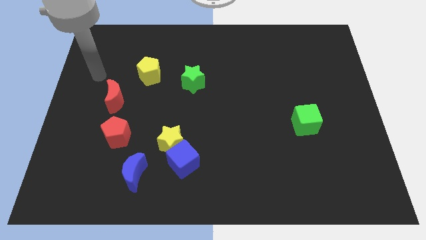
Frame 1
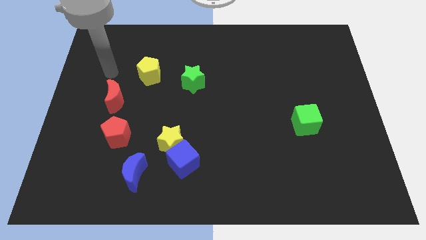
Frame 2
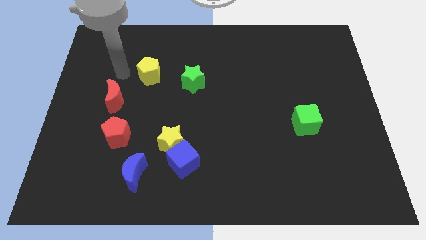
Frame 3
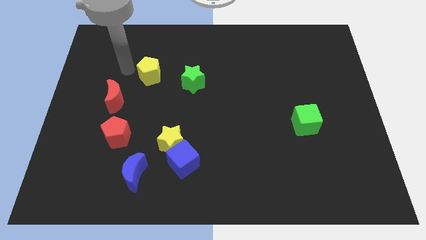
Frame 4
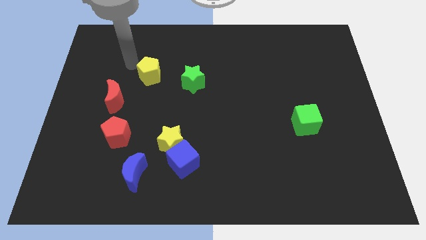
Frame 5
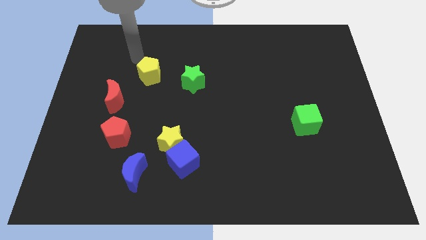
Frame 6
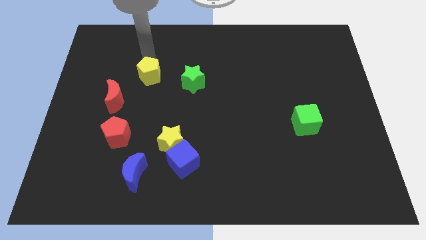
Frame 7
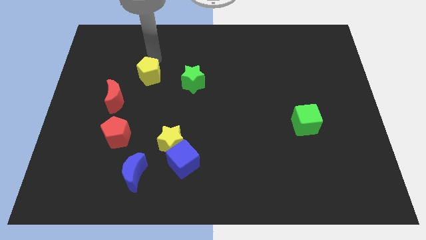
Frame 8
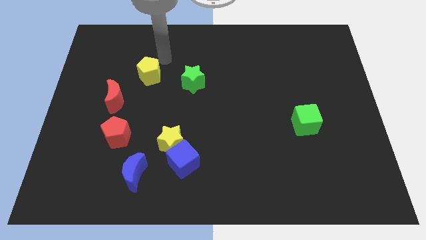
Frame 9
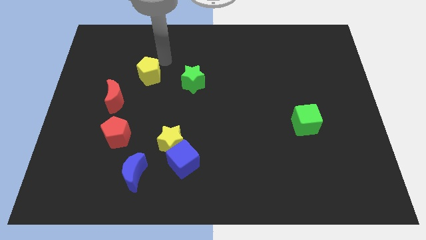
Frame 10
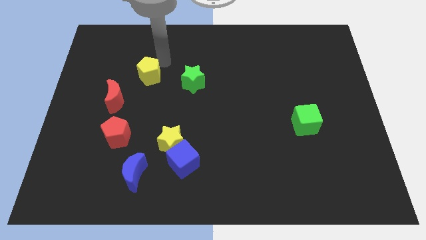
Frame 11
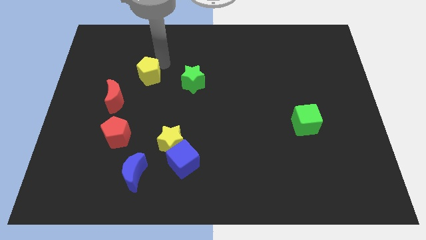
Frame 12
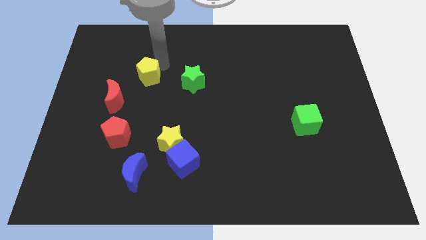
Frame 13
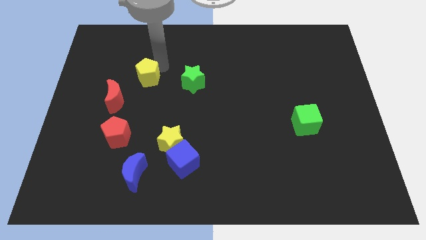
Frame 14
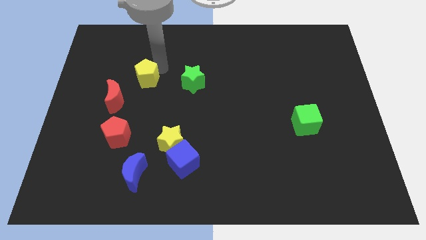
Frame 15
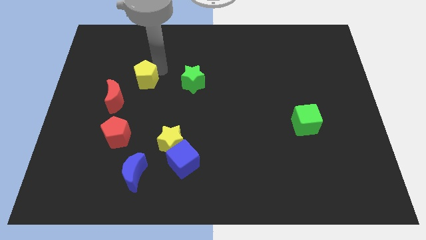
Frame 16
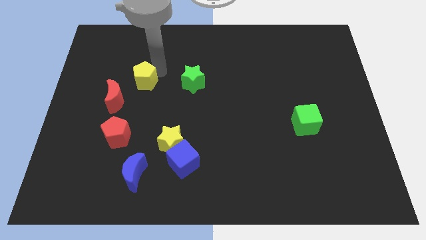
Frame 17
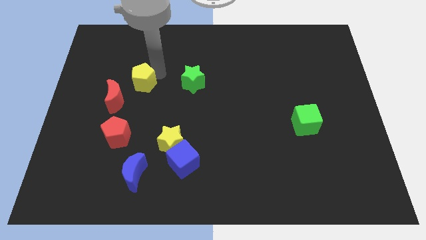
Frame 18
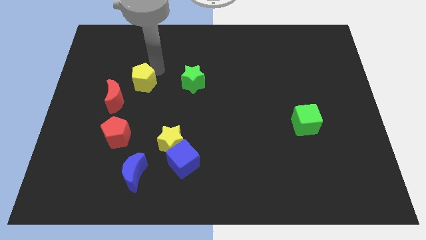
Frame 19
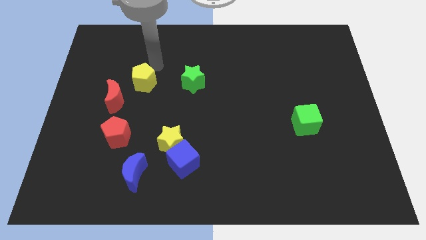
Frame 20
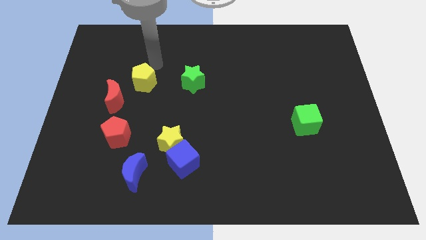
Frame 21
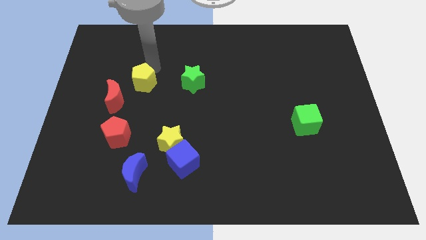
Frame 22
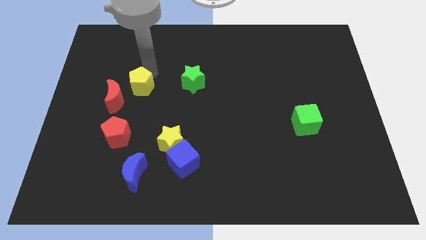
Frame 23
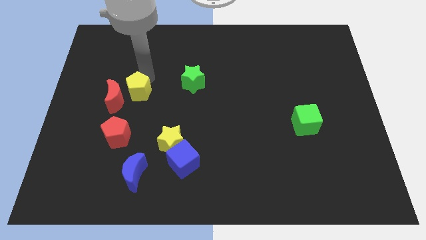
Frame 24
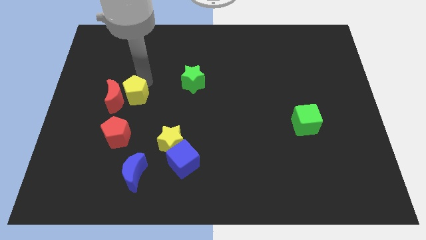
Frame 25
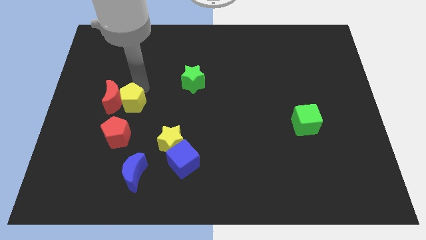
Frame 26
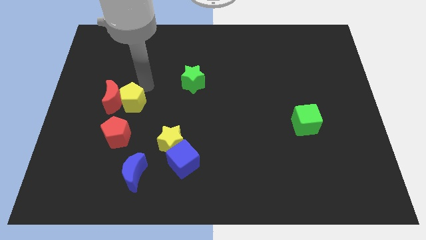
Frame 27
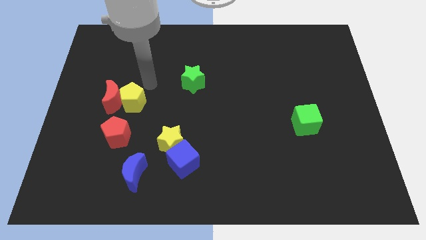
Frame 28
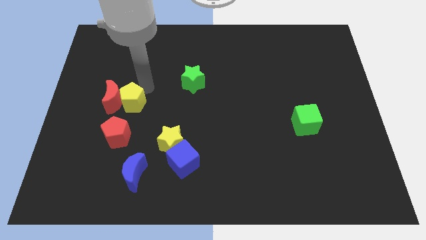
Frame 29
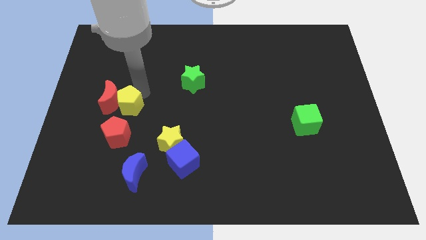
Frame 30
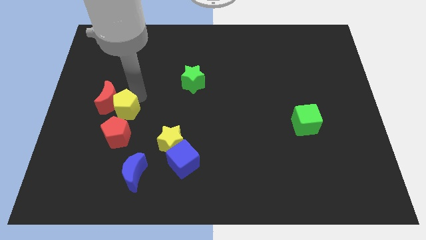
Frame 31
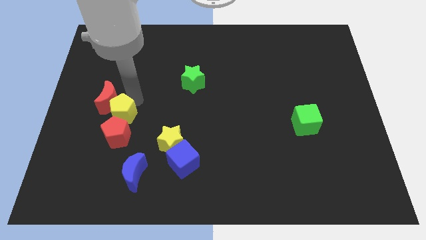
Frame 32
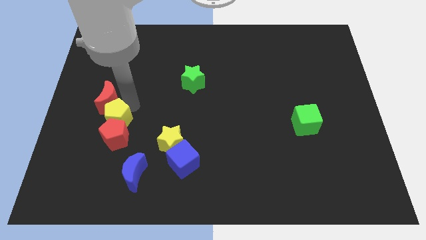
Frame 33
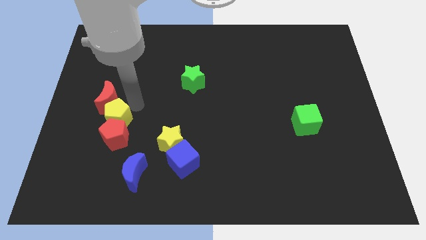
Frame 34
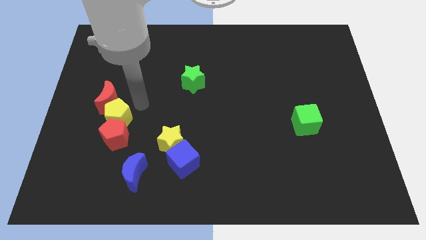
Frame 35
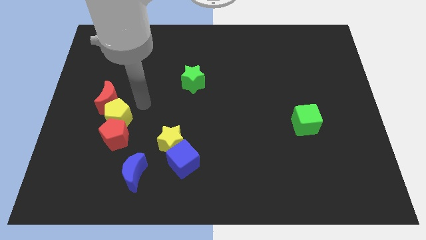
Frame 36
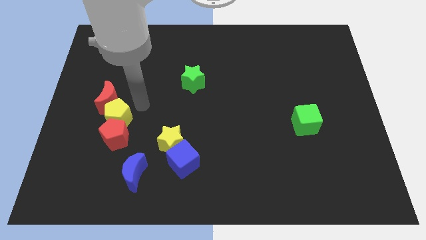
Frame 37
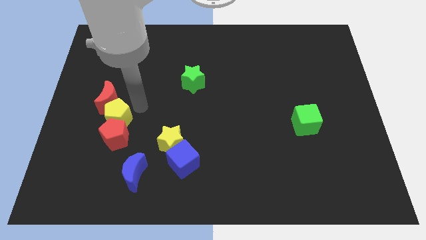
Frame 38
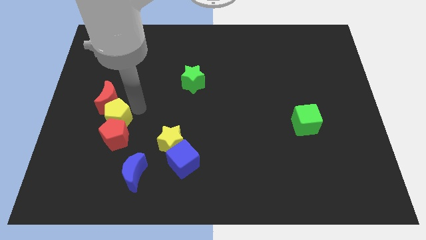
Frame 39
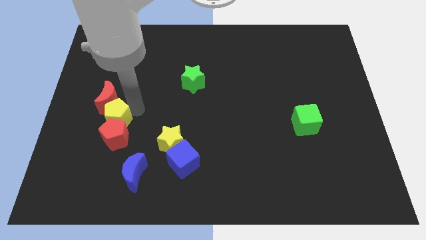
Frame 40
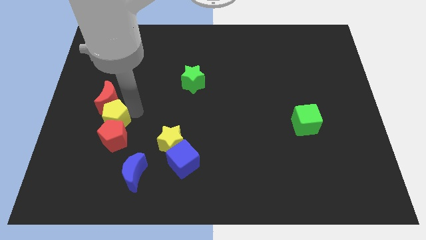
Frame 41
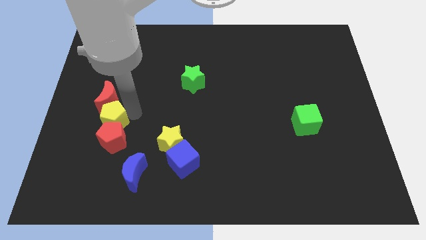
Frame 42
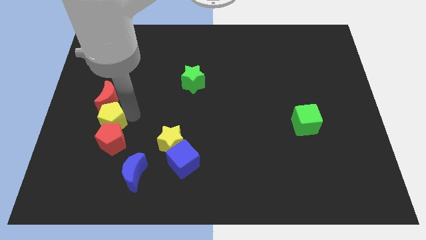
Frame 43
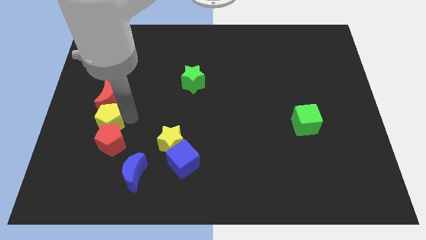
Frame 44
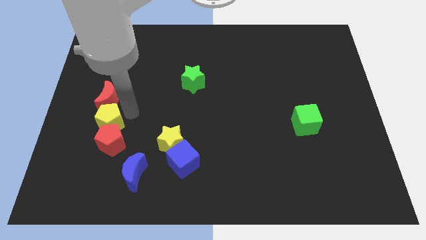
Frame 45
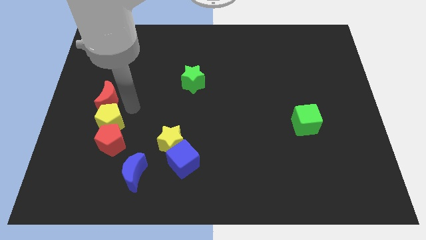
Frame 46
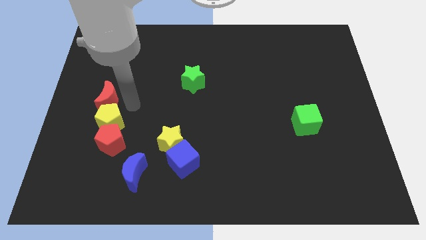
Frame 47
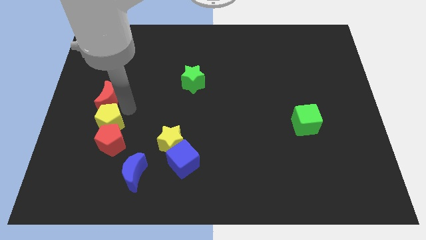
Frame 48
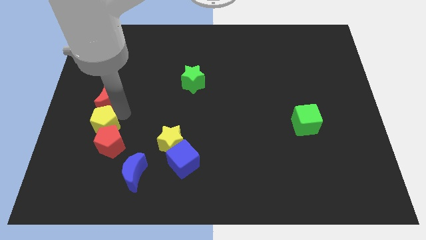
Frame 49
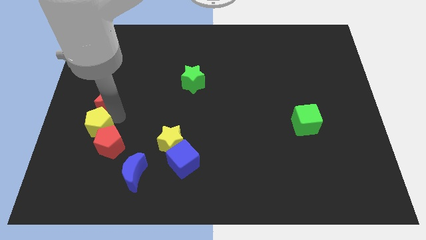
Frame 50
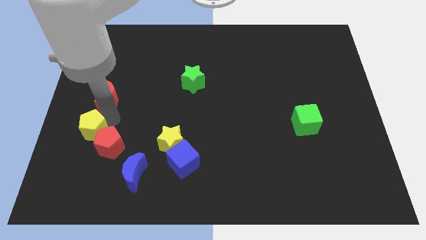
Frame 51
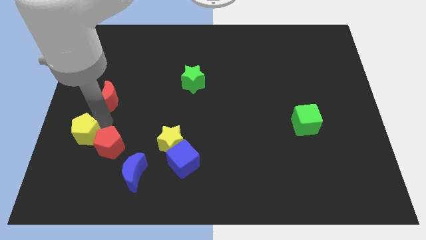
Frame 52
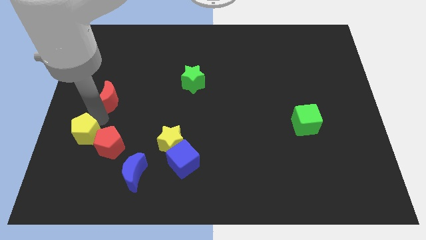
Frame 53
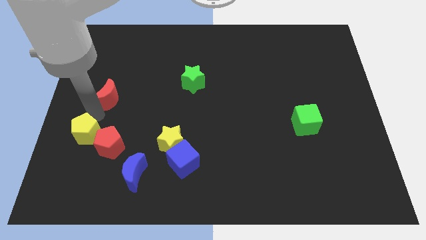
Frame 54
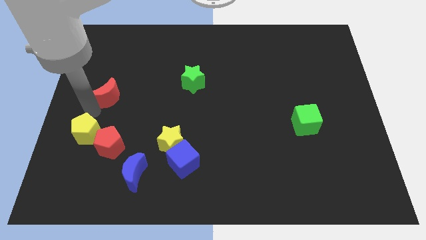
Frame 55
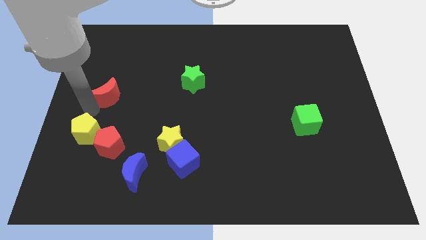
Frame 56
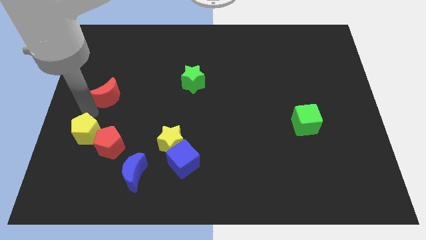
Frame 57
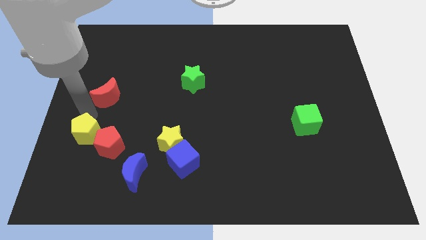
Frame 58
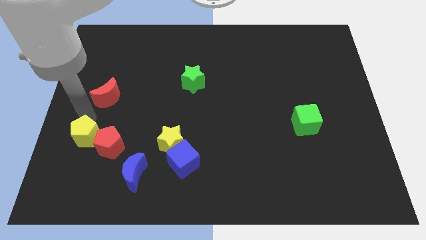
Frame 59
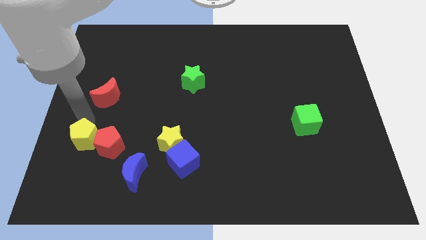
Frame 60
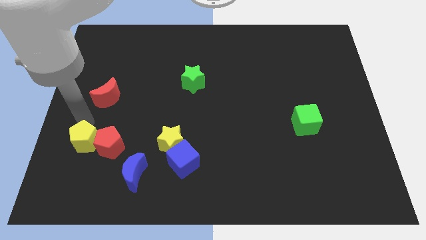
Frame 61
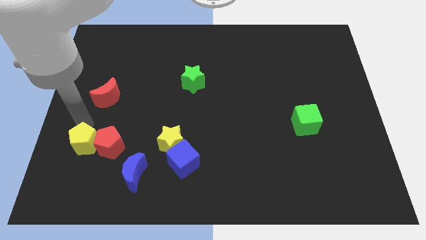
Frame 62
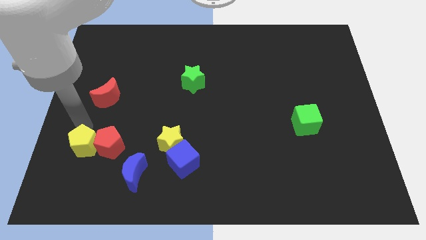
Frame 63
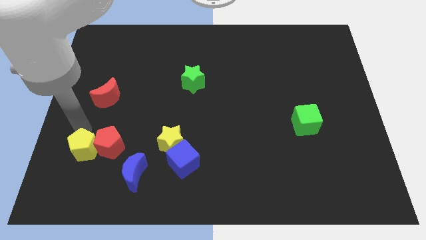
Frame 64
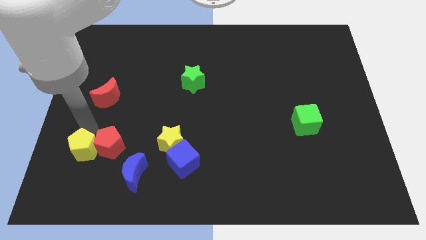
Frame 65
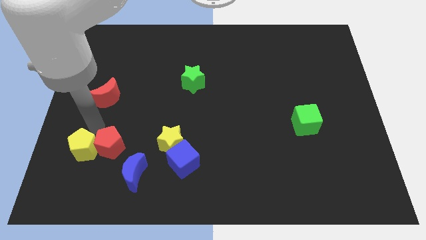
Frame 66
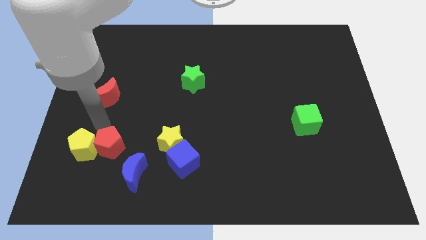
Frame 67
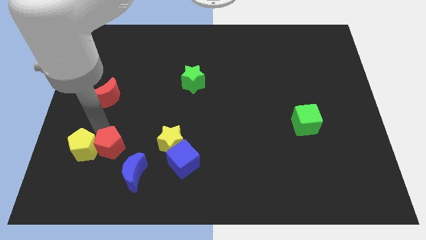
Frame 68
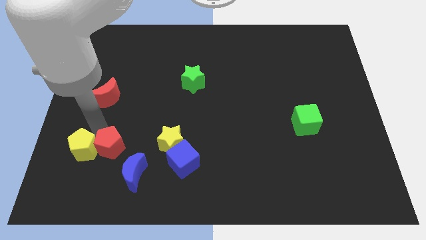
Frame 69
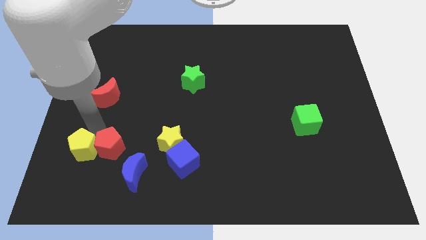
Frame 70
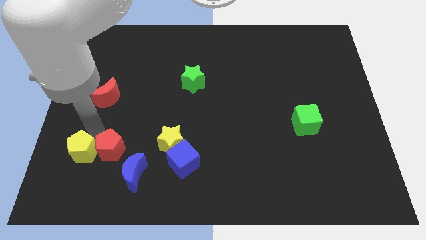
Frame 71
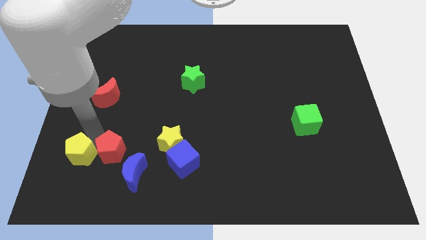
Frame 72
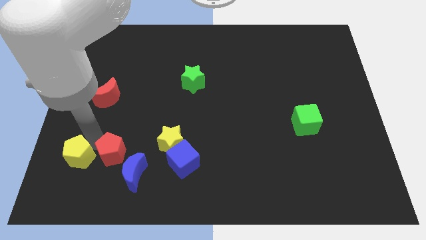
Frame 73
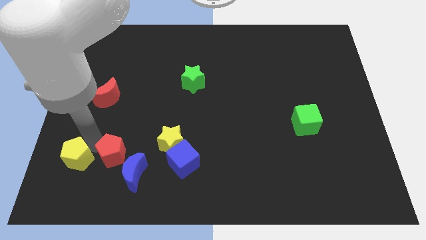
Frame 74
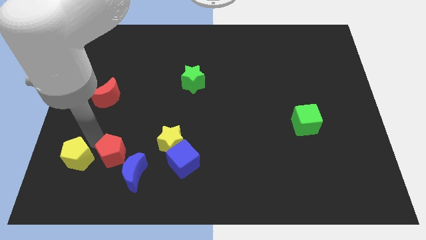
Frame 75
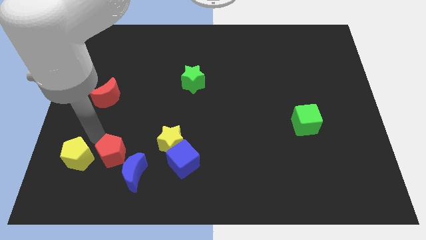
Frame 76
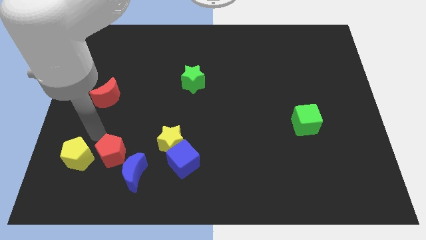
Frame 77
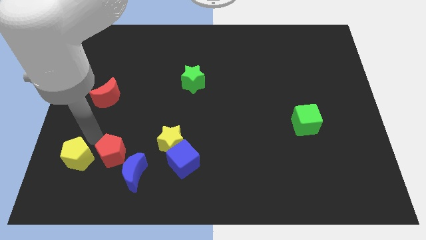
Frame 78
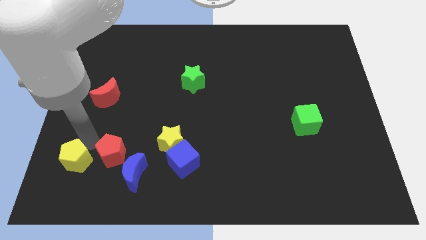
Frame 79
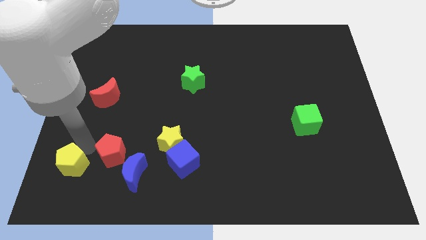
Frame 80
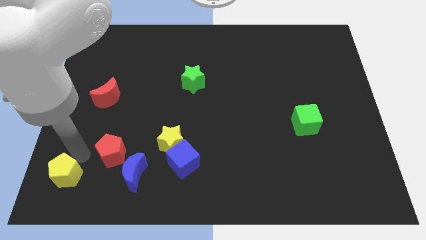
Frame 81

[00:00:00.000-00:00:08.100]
push the yellow pentagon to the bottom left
